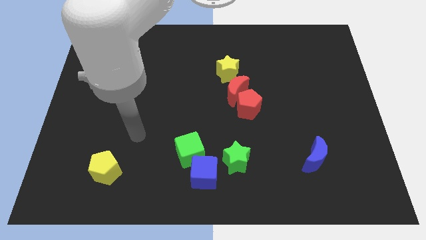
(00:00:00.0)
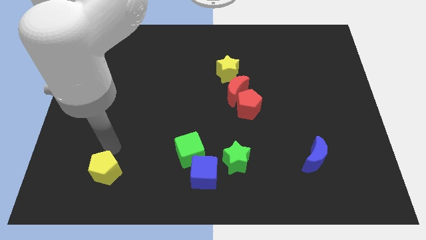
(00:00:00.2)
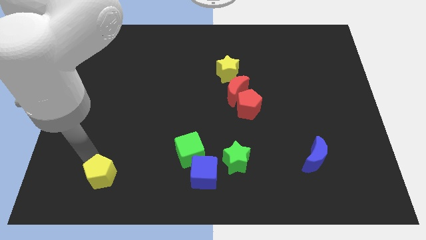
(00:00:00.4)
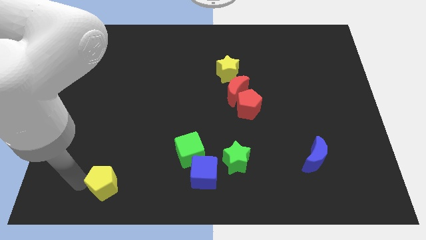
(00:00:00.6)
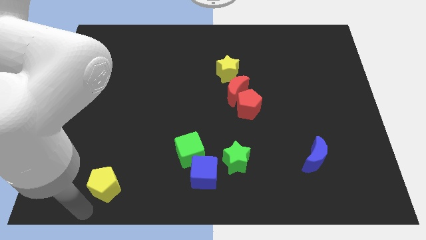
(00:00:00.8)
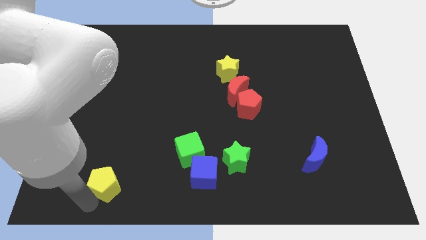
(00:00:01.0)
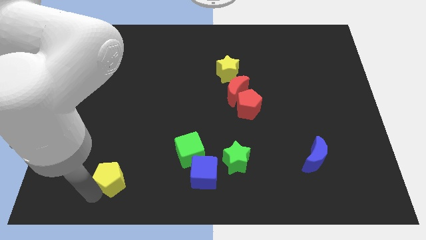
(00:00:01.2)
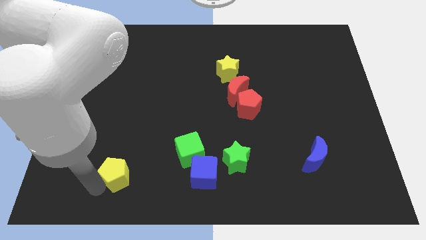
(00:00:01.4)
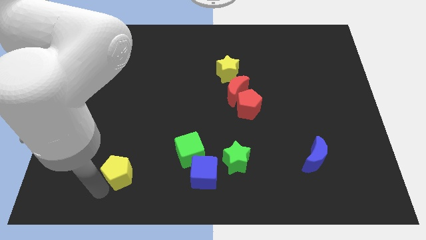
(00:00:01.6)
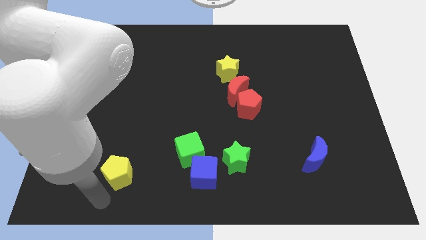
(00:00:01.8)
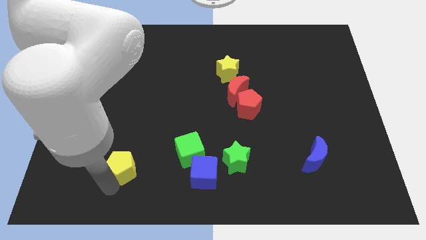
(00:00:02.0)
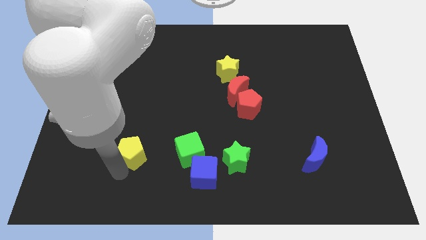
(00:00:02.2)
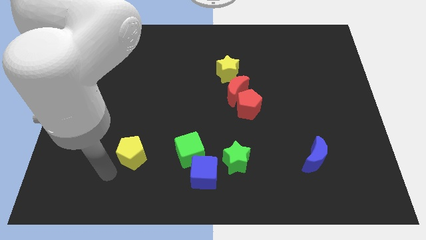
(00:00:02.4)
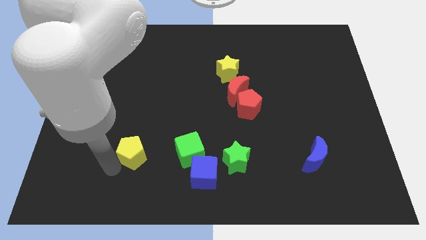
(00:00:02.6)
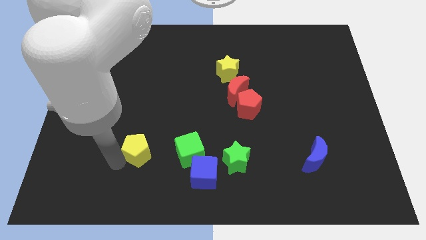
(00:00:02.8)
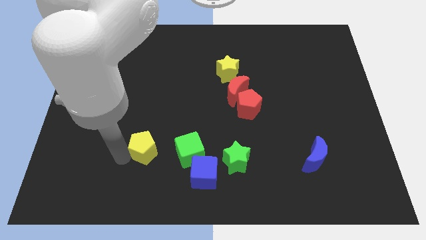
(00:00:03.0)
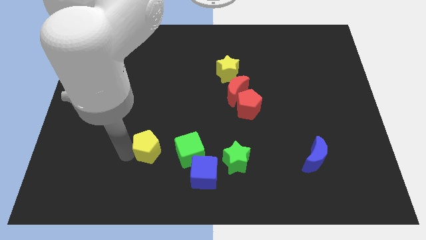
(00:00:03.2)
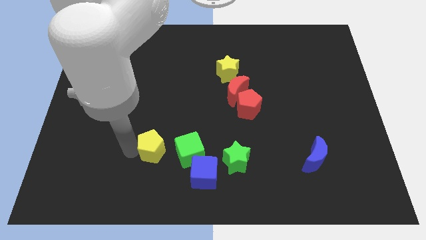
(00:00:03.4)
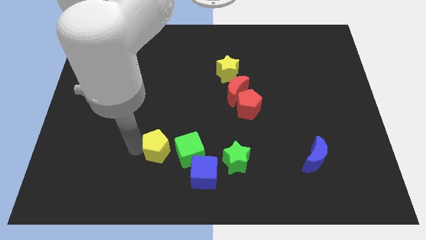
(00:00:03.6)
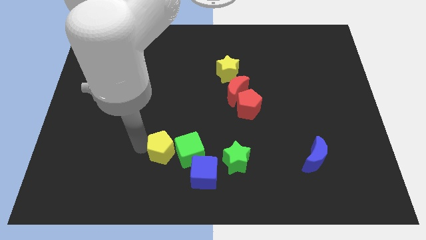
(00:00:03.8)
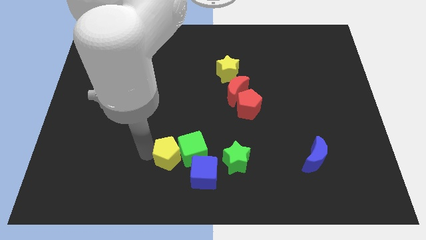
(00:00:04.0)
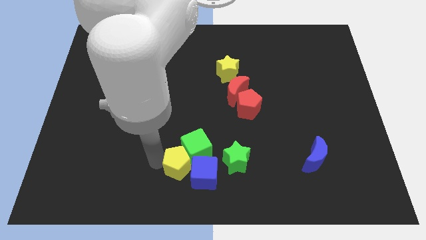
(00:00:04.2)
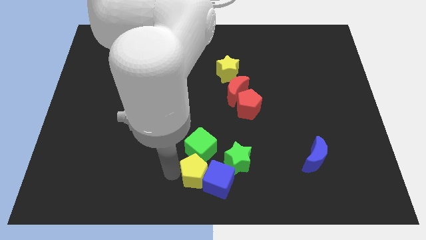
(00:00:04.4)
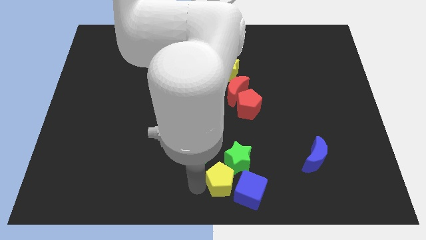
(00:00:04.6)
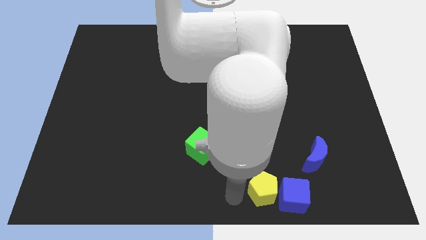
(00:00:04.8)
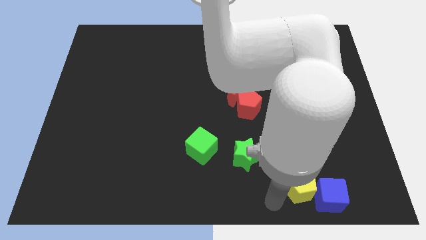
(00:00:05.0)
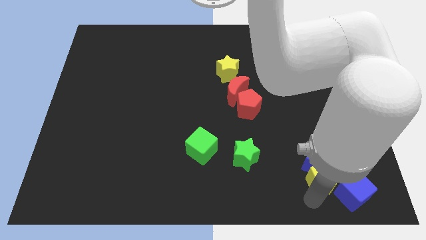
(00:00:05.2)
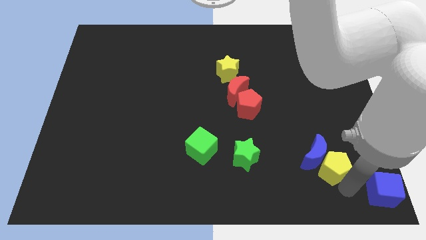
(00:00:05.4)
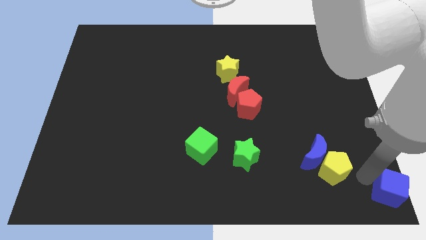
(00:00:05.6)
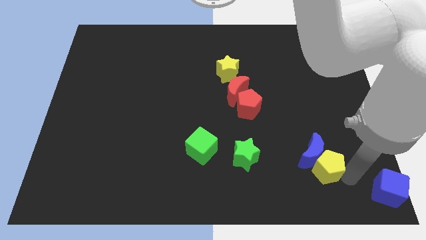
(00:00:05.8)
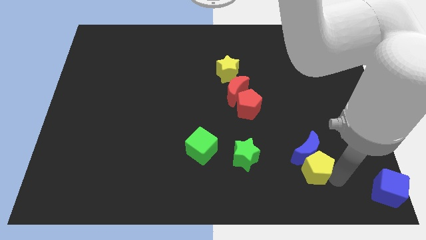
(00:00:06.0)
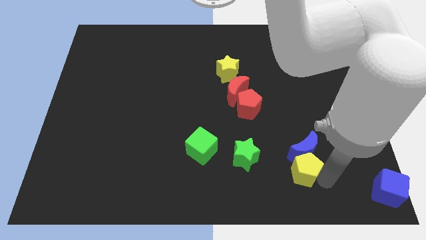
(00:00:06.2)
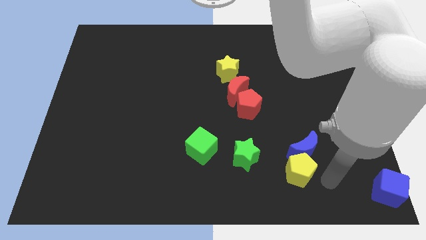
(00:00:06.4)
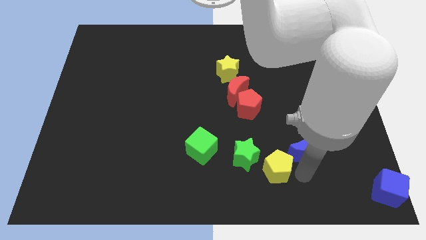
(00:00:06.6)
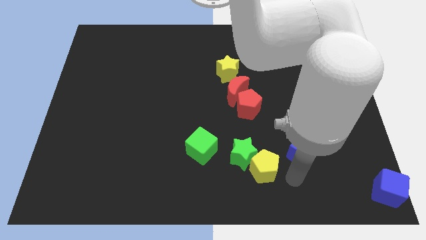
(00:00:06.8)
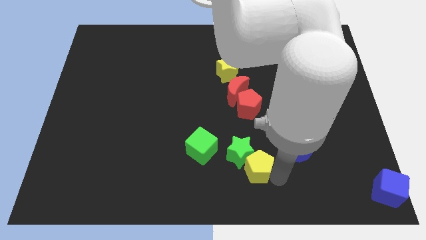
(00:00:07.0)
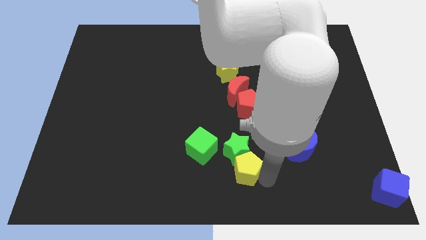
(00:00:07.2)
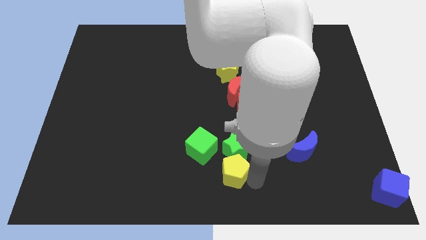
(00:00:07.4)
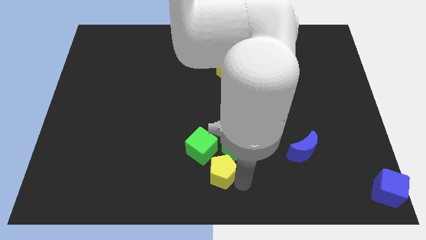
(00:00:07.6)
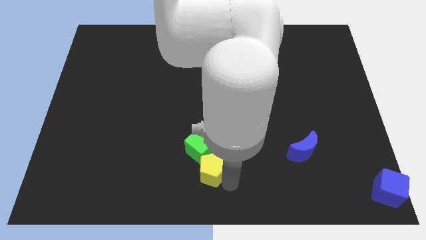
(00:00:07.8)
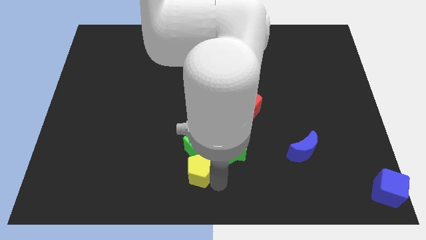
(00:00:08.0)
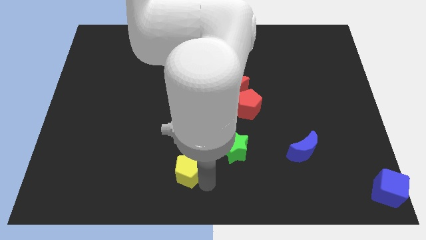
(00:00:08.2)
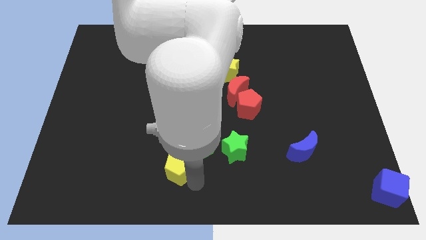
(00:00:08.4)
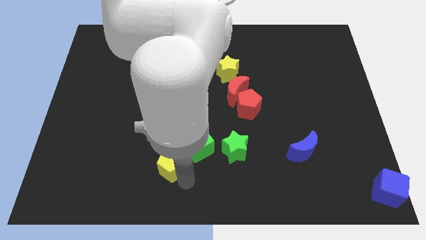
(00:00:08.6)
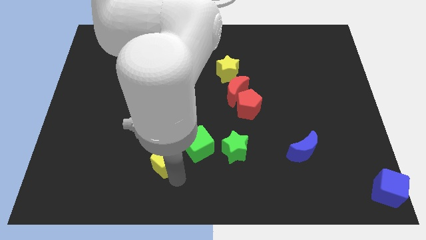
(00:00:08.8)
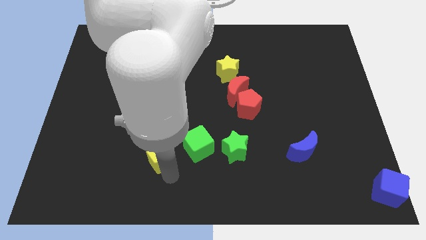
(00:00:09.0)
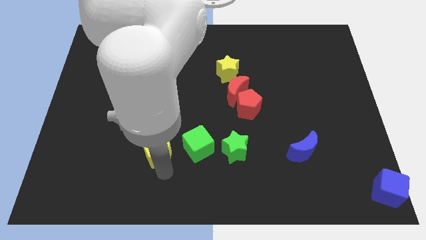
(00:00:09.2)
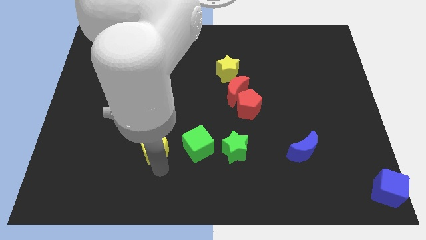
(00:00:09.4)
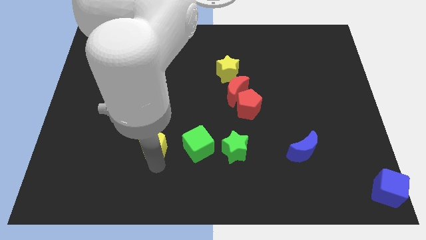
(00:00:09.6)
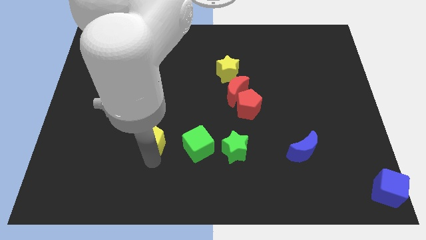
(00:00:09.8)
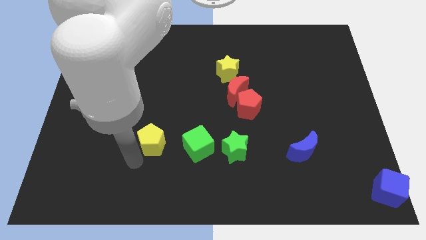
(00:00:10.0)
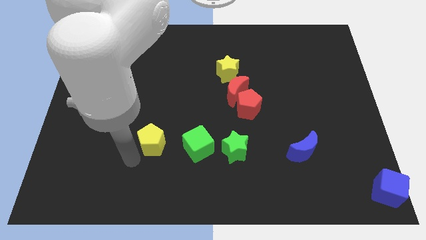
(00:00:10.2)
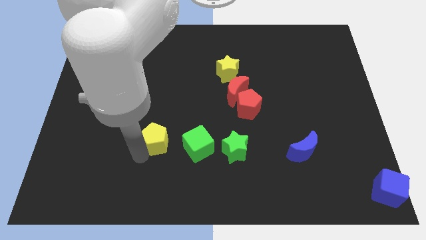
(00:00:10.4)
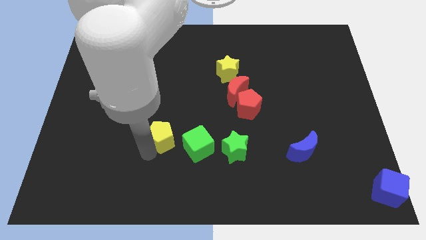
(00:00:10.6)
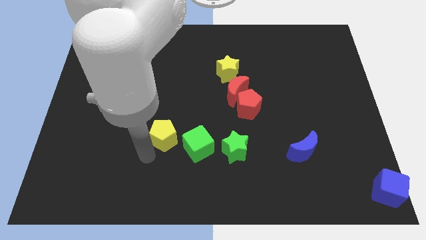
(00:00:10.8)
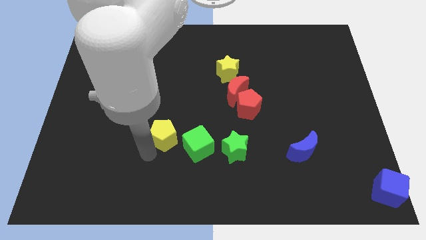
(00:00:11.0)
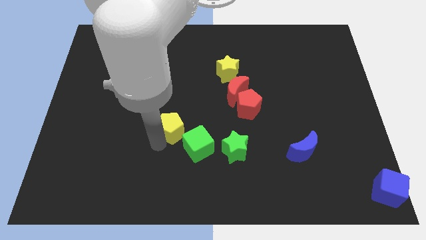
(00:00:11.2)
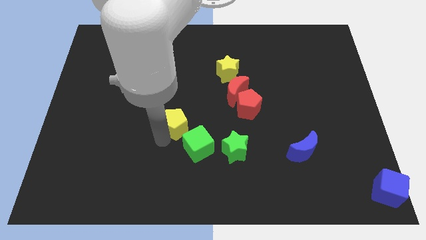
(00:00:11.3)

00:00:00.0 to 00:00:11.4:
put the yellow pentagon to the center of the board

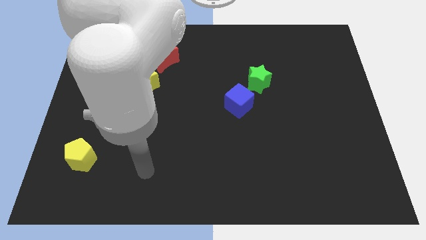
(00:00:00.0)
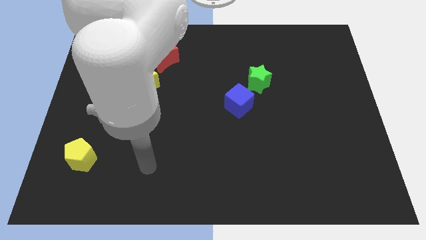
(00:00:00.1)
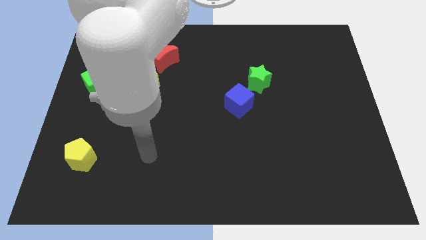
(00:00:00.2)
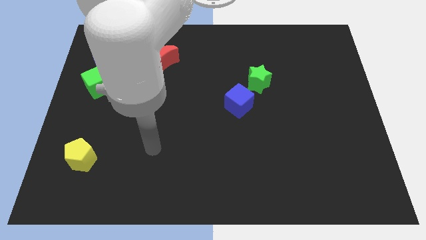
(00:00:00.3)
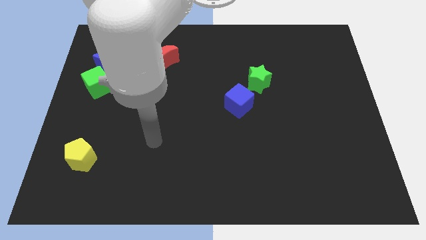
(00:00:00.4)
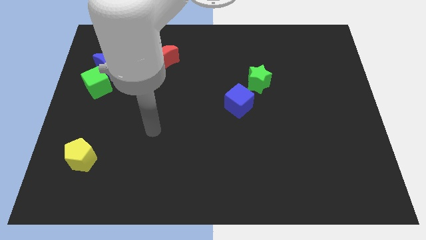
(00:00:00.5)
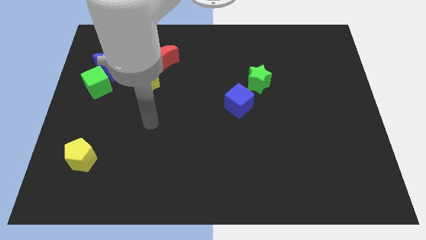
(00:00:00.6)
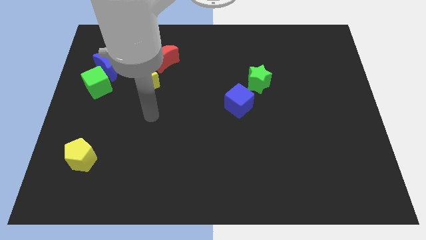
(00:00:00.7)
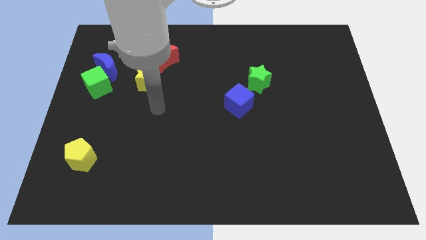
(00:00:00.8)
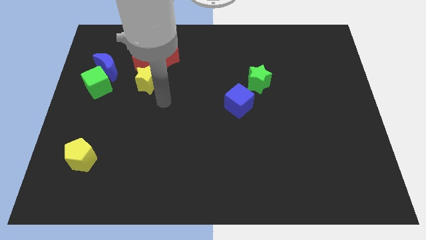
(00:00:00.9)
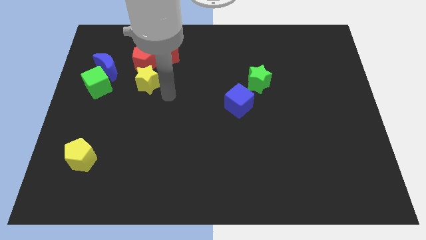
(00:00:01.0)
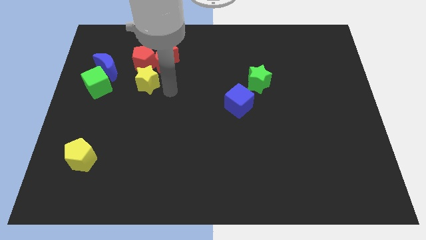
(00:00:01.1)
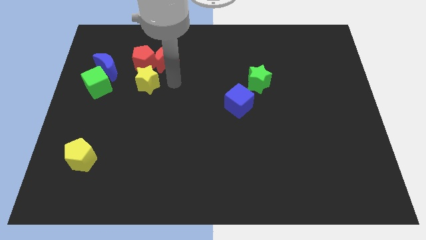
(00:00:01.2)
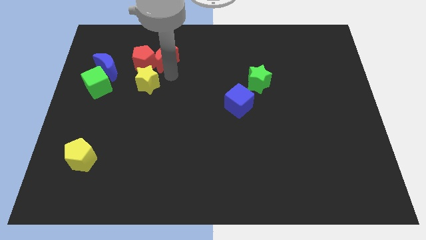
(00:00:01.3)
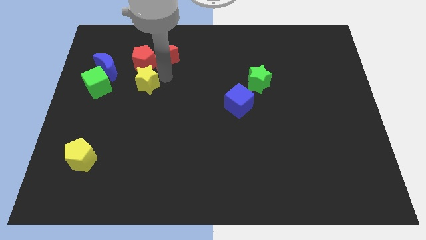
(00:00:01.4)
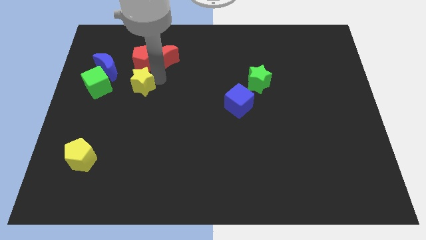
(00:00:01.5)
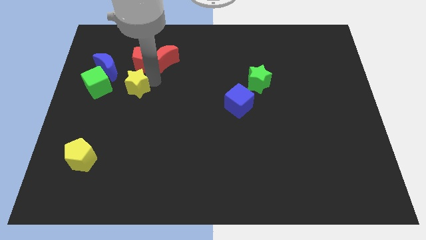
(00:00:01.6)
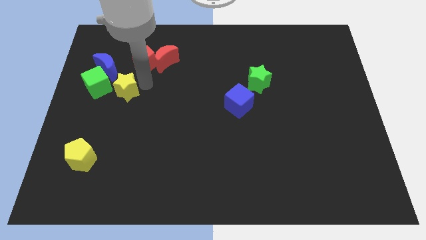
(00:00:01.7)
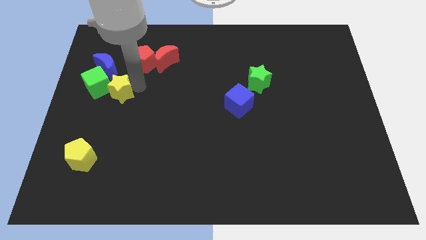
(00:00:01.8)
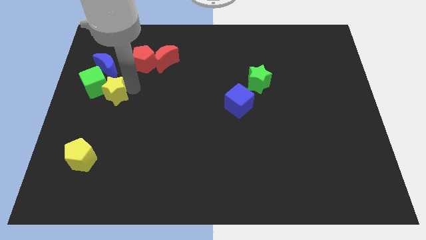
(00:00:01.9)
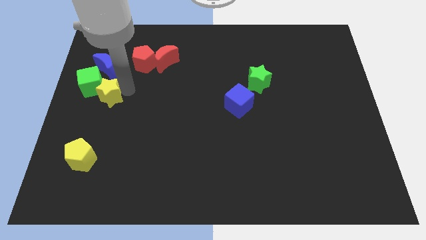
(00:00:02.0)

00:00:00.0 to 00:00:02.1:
move the yellow star to the center left
